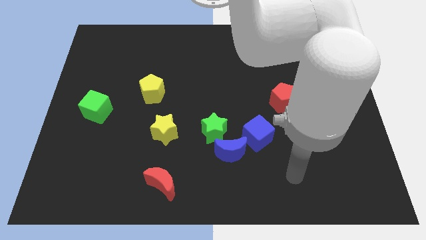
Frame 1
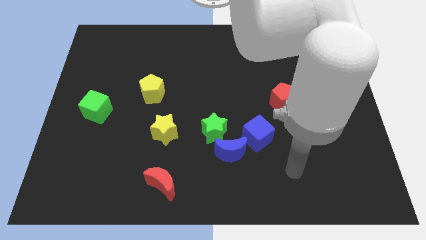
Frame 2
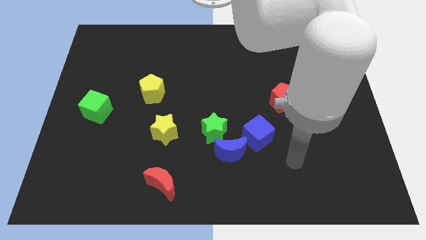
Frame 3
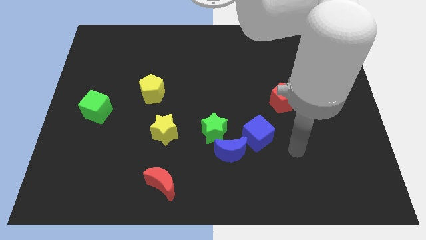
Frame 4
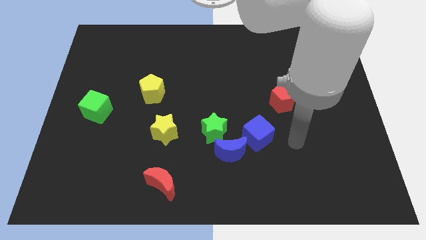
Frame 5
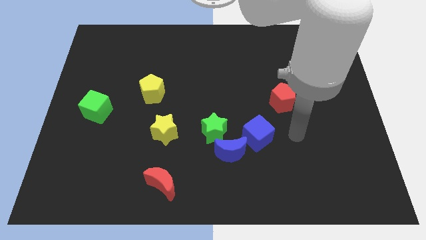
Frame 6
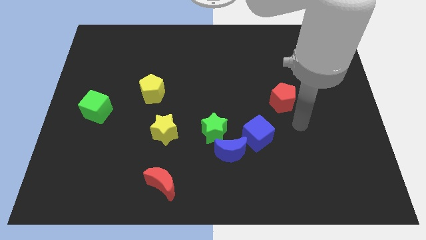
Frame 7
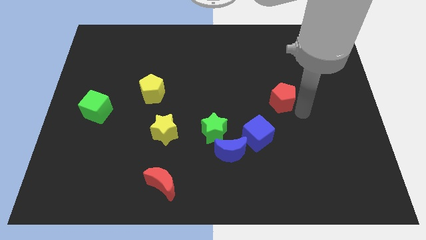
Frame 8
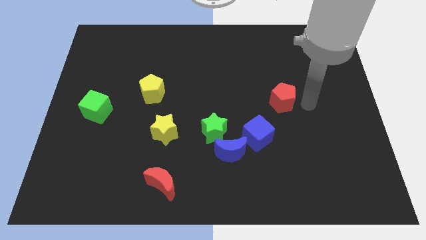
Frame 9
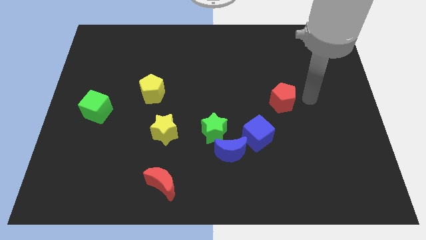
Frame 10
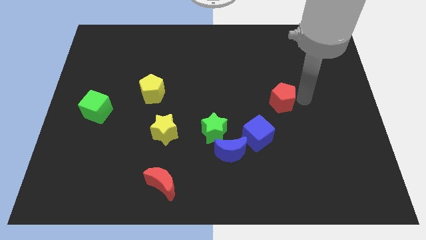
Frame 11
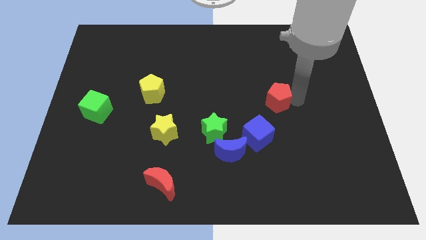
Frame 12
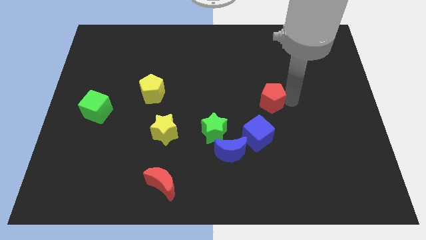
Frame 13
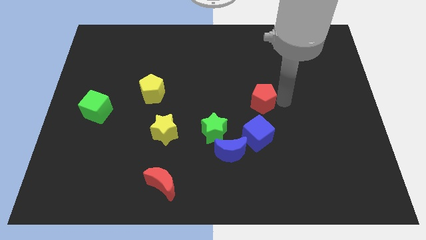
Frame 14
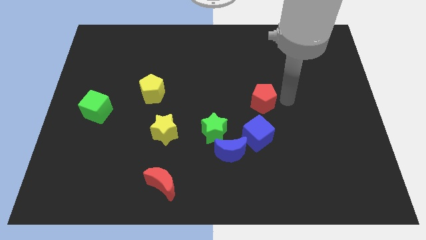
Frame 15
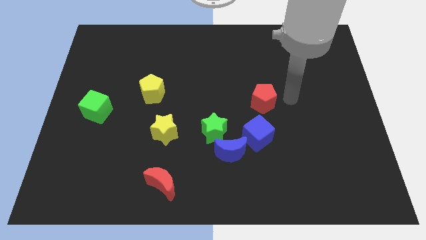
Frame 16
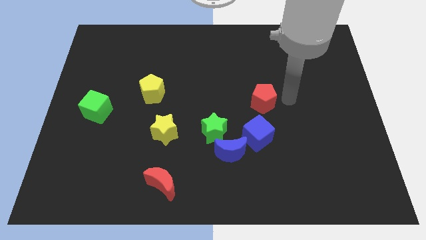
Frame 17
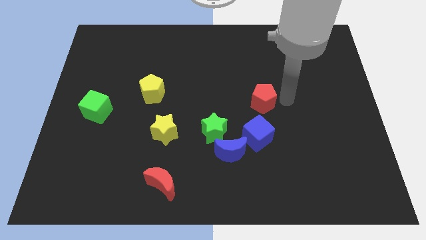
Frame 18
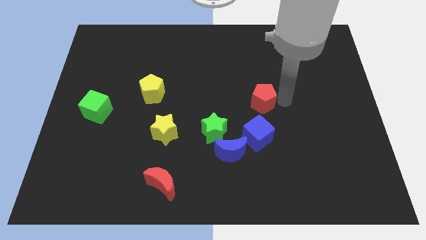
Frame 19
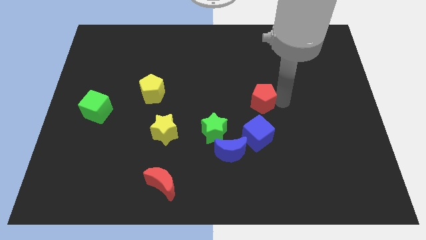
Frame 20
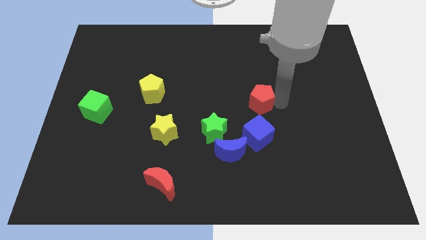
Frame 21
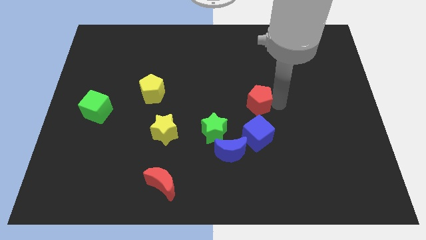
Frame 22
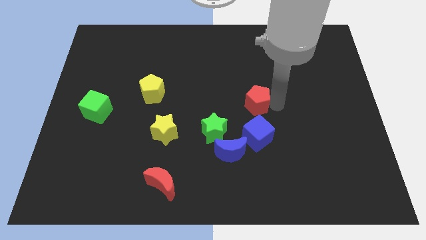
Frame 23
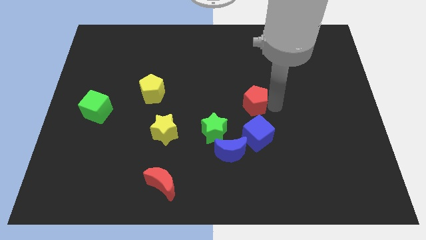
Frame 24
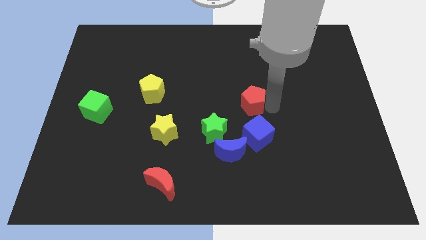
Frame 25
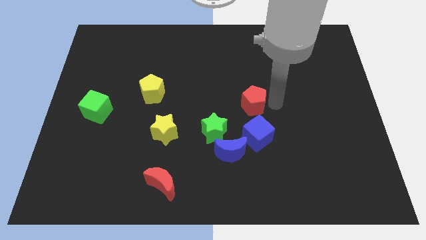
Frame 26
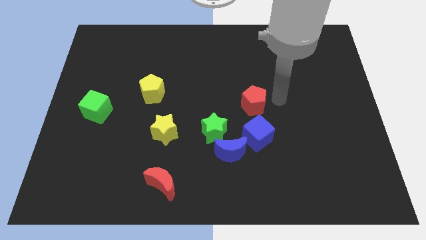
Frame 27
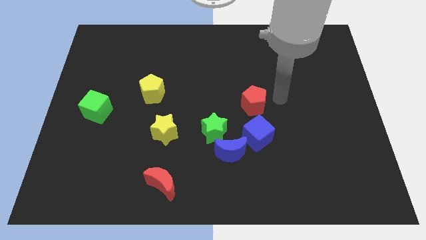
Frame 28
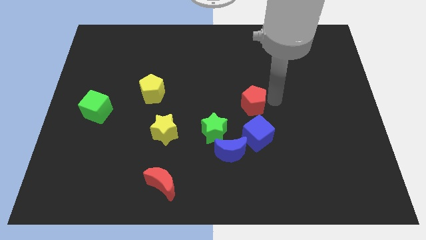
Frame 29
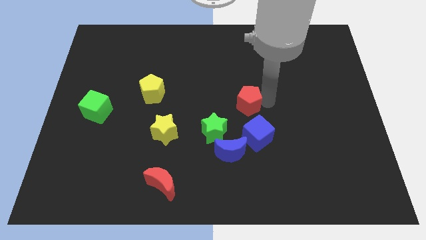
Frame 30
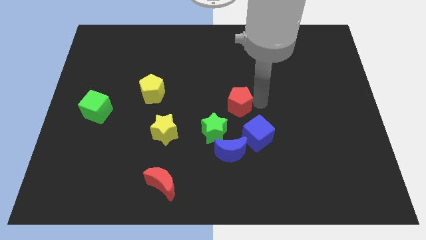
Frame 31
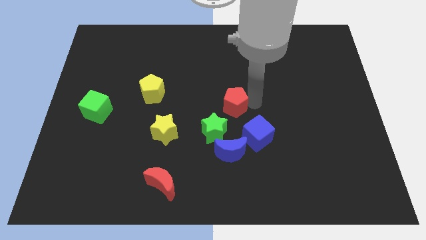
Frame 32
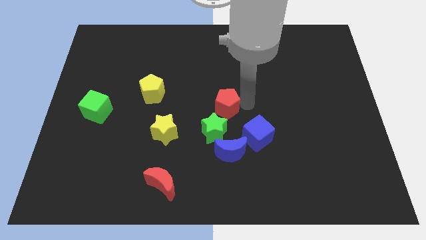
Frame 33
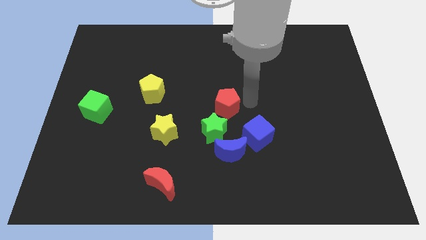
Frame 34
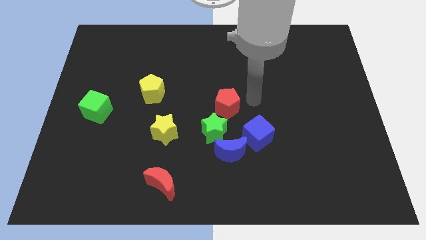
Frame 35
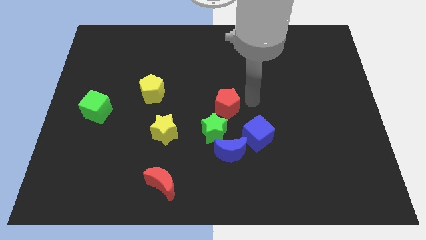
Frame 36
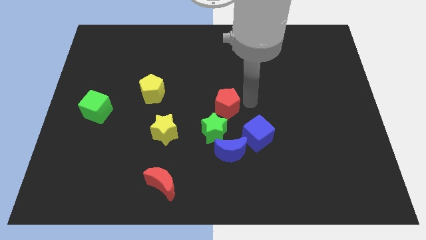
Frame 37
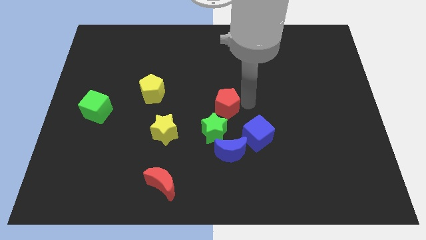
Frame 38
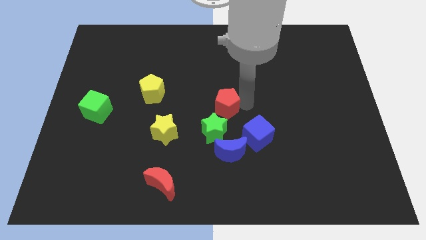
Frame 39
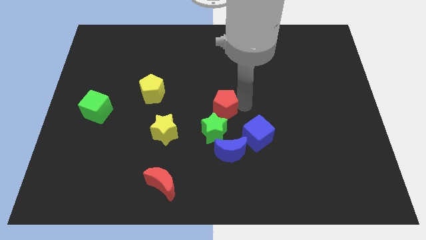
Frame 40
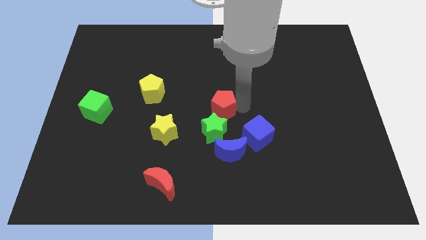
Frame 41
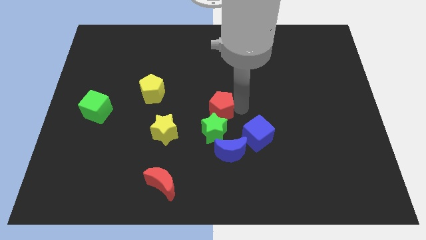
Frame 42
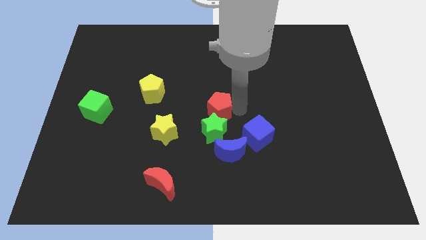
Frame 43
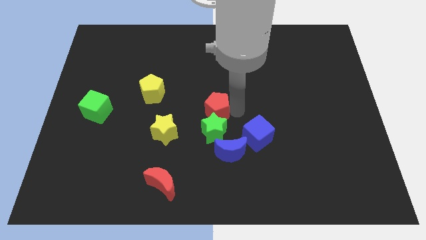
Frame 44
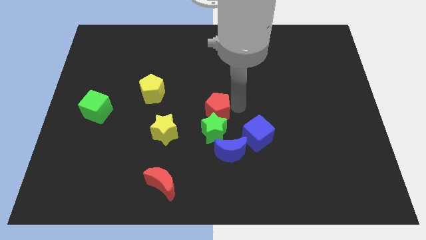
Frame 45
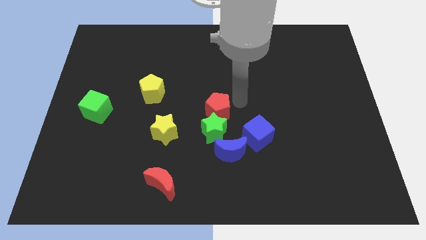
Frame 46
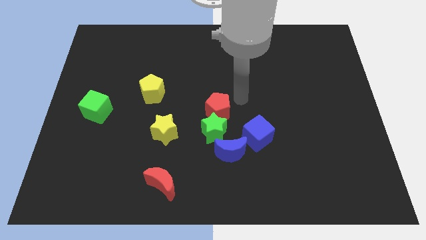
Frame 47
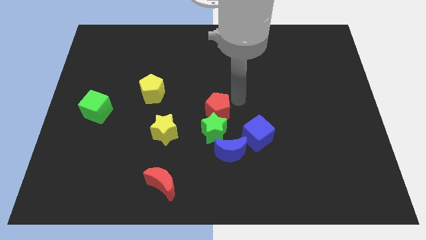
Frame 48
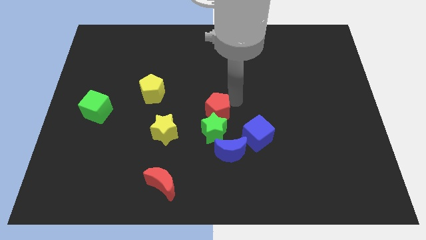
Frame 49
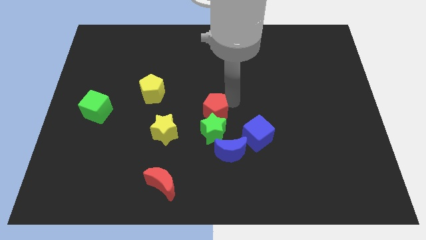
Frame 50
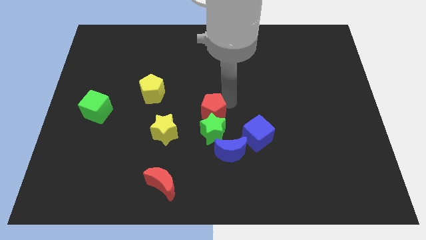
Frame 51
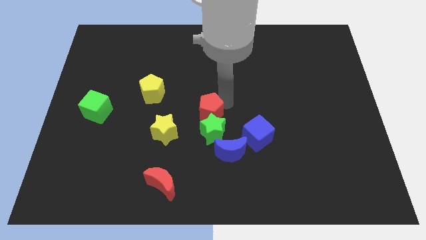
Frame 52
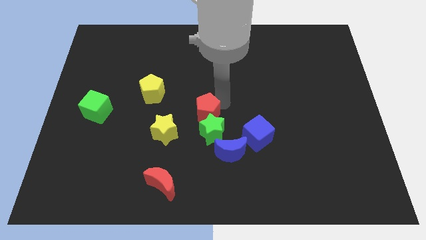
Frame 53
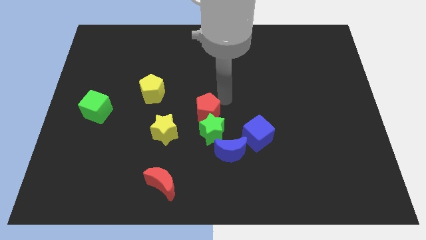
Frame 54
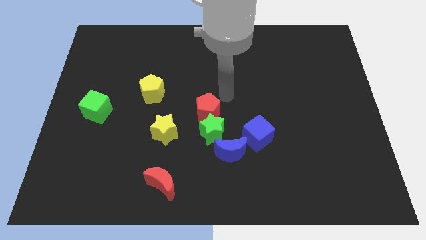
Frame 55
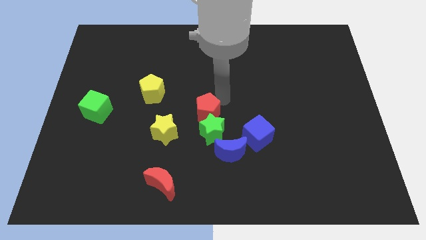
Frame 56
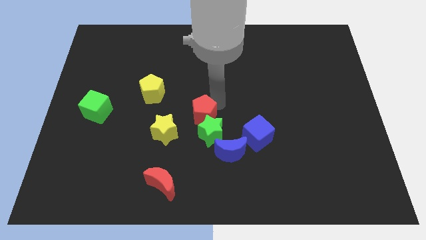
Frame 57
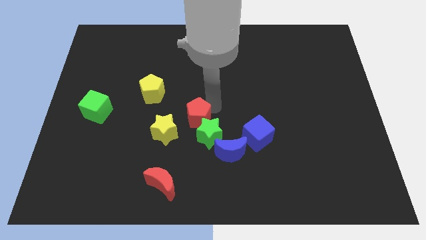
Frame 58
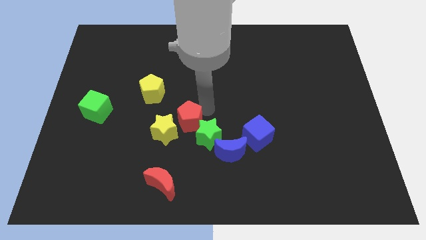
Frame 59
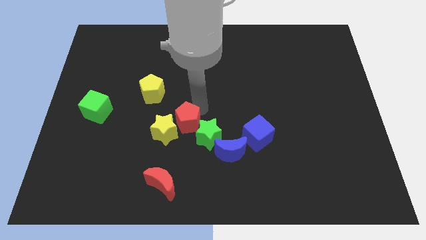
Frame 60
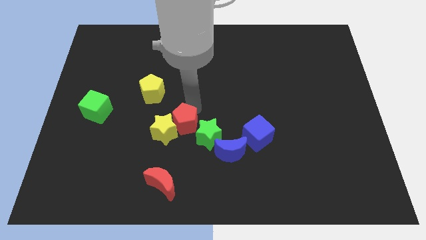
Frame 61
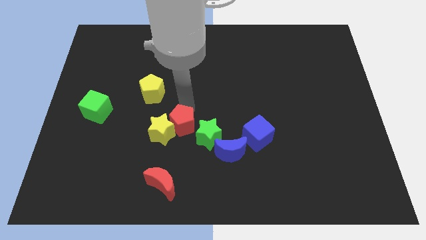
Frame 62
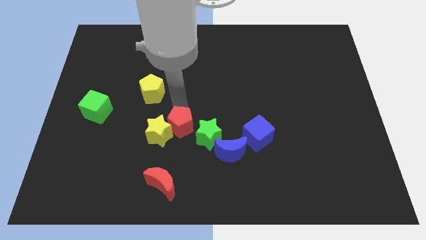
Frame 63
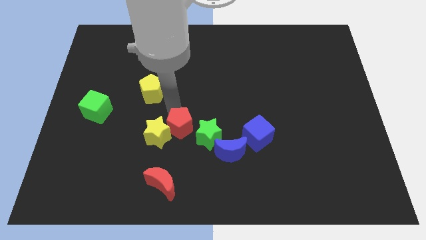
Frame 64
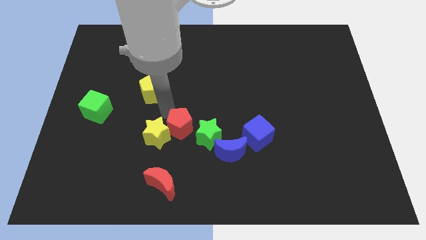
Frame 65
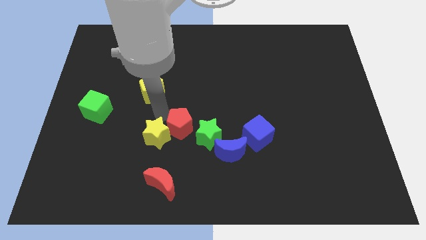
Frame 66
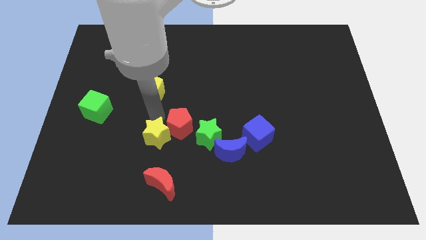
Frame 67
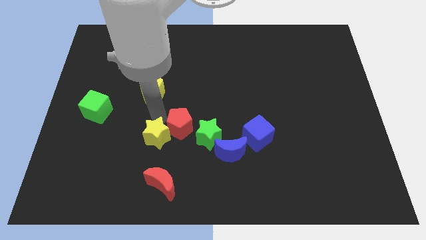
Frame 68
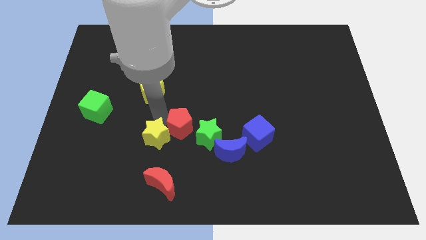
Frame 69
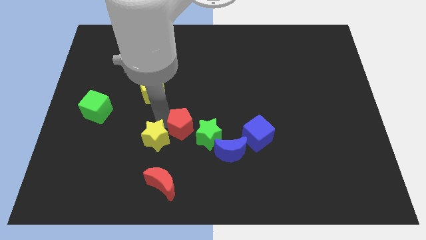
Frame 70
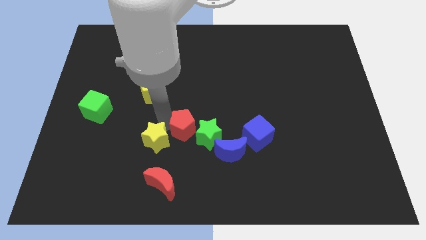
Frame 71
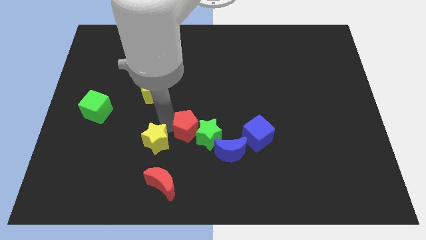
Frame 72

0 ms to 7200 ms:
put the red pentagon to the left of the blue cube
